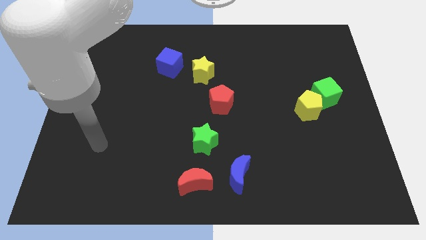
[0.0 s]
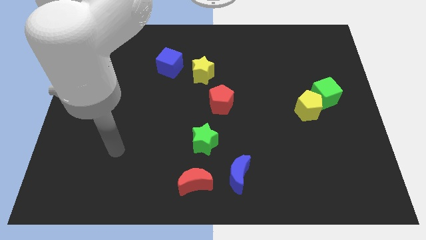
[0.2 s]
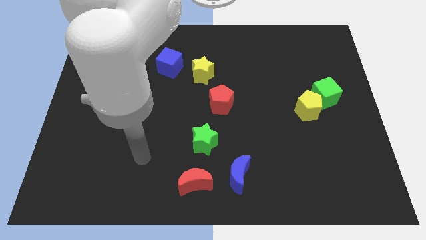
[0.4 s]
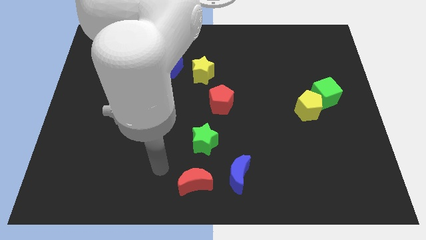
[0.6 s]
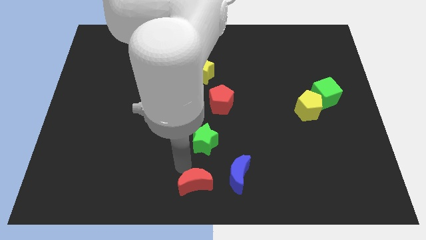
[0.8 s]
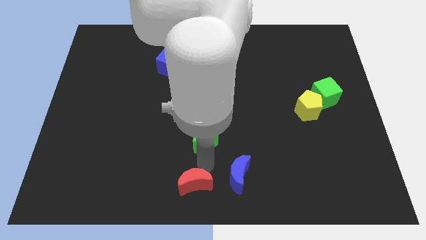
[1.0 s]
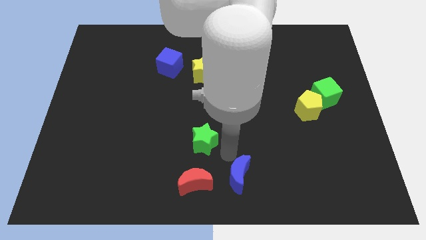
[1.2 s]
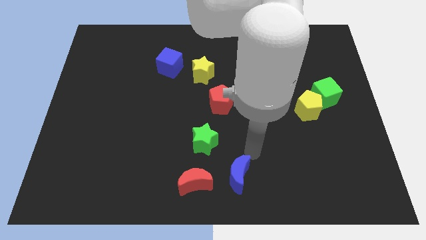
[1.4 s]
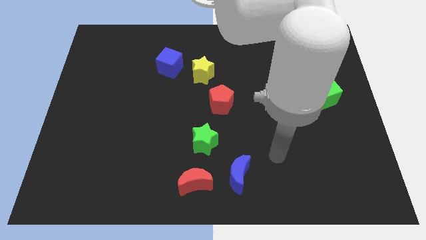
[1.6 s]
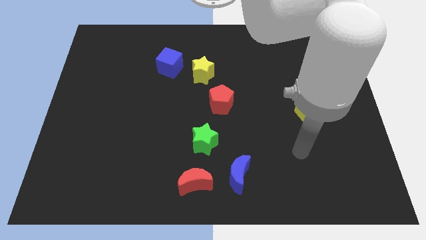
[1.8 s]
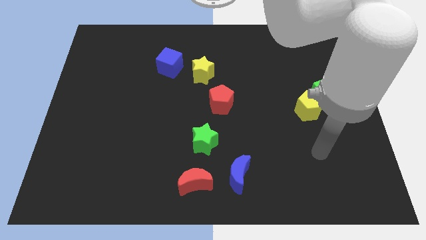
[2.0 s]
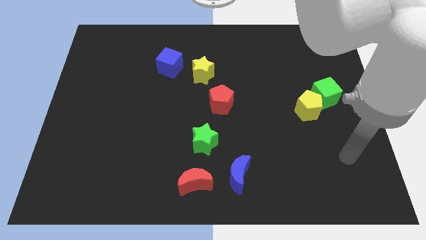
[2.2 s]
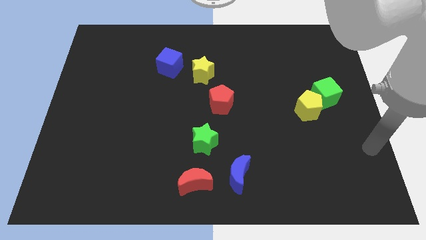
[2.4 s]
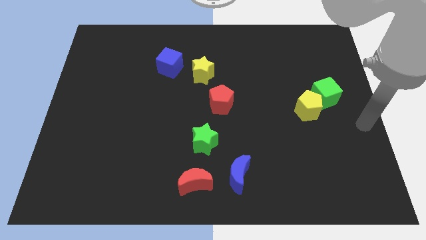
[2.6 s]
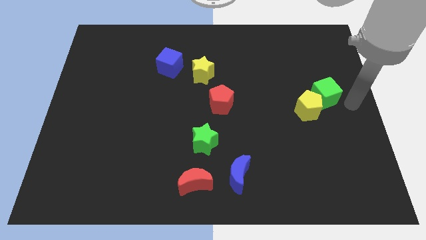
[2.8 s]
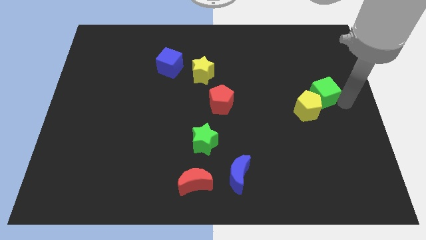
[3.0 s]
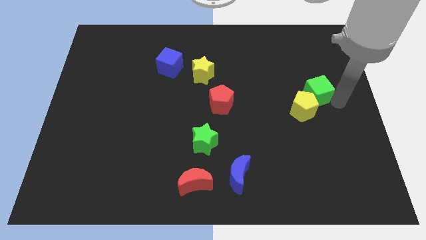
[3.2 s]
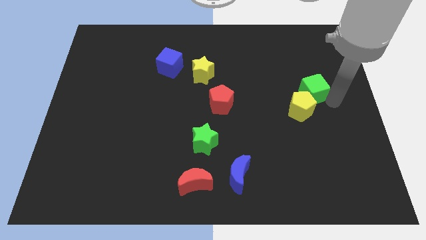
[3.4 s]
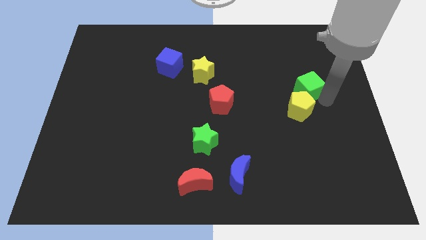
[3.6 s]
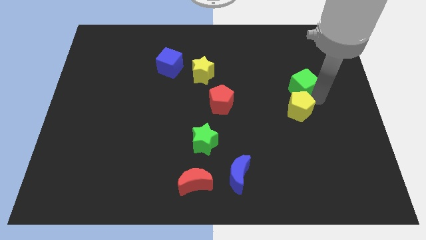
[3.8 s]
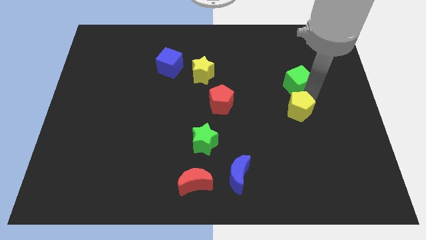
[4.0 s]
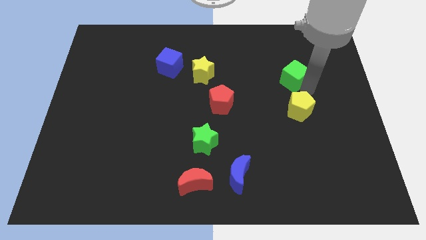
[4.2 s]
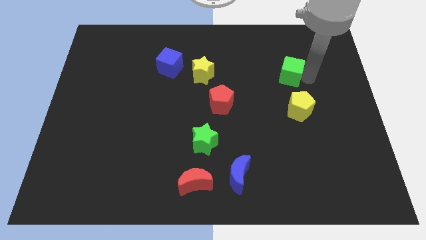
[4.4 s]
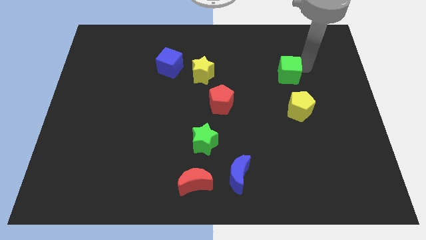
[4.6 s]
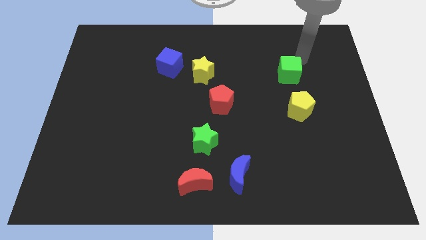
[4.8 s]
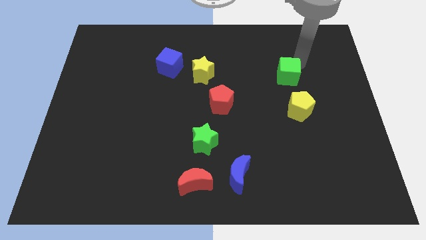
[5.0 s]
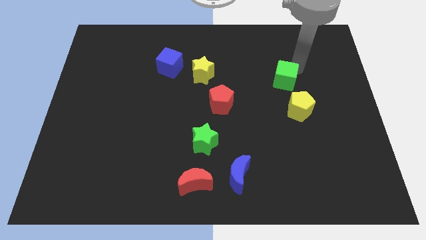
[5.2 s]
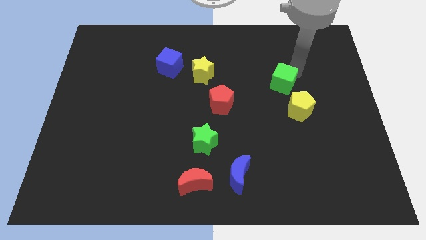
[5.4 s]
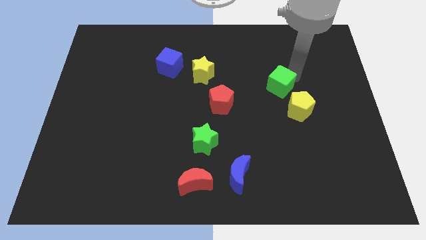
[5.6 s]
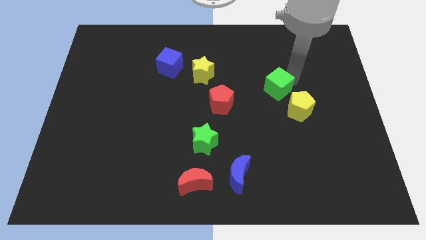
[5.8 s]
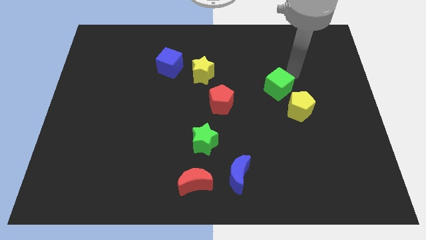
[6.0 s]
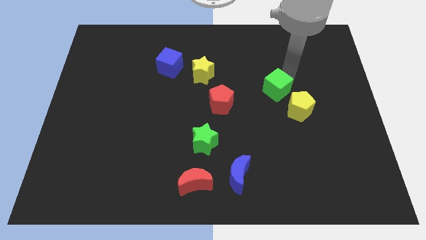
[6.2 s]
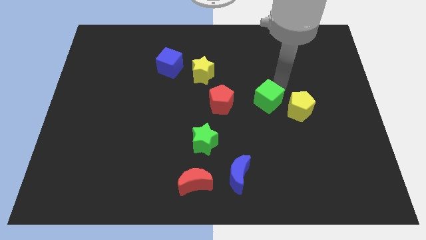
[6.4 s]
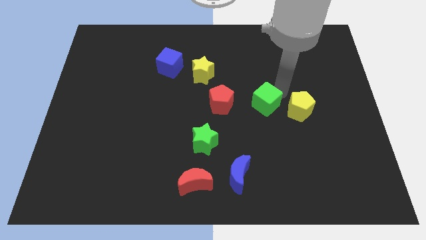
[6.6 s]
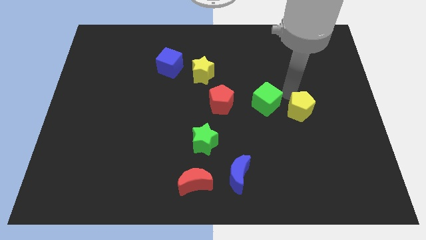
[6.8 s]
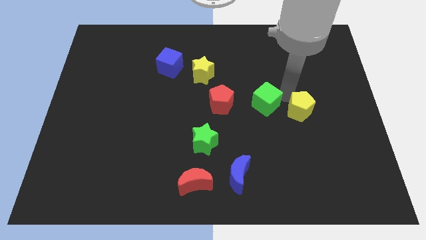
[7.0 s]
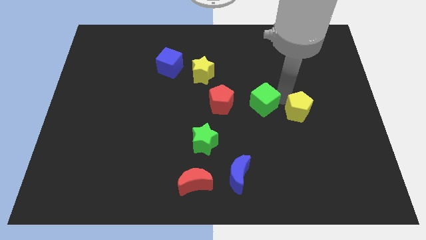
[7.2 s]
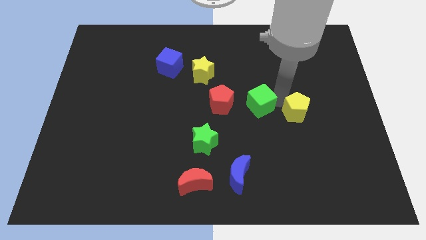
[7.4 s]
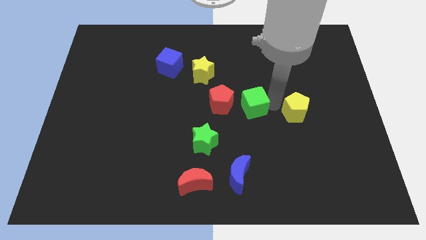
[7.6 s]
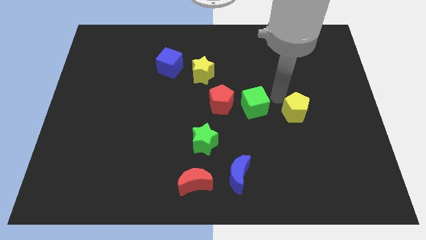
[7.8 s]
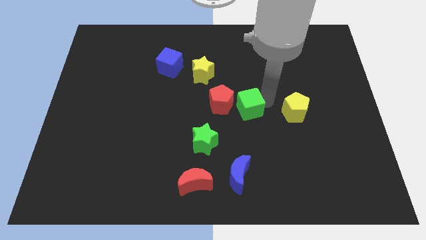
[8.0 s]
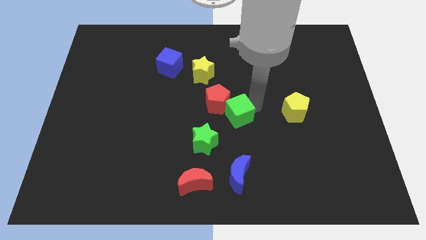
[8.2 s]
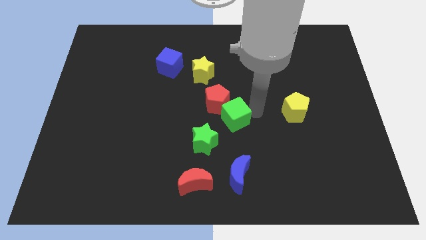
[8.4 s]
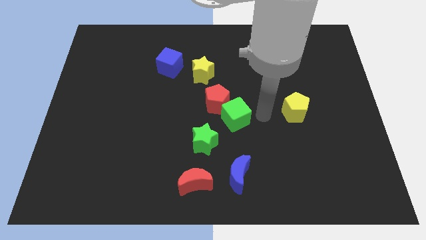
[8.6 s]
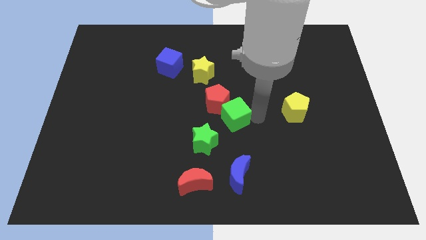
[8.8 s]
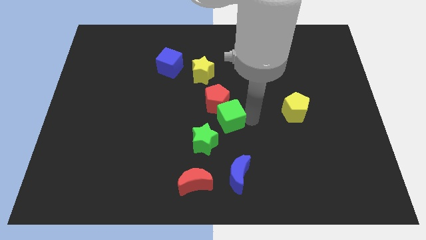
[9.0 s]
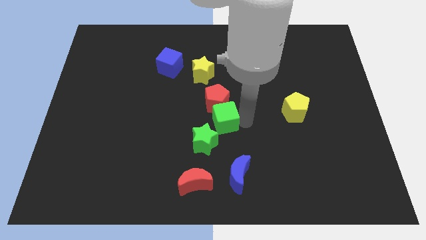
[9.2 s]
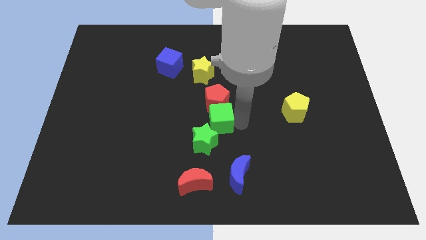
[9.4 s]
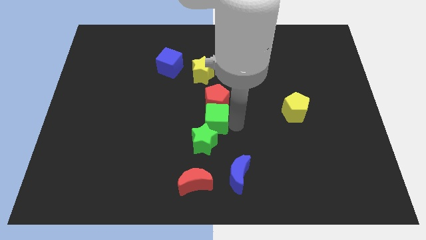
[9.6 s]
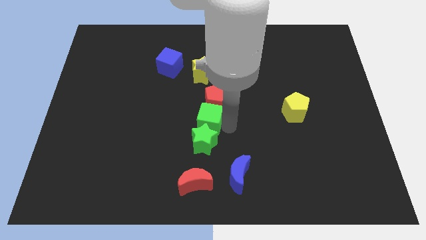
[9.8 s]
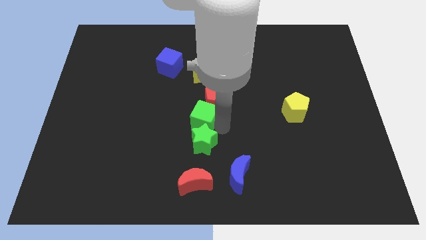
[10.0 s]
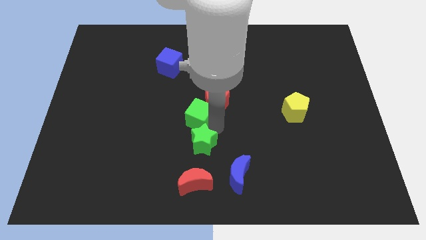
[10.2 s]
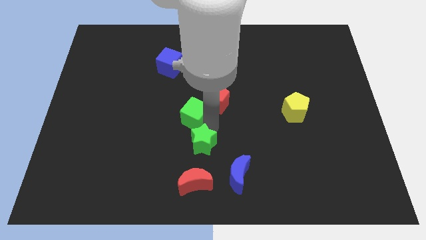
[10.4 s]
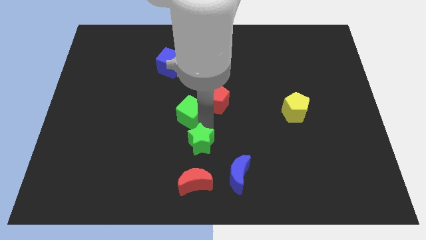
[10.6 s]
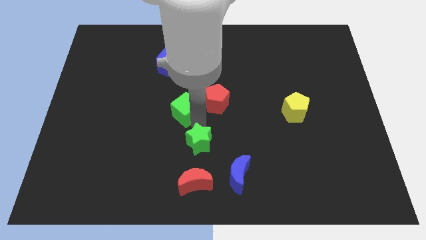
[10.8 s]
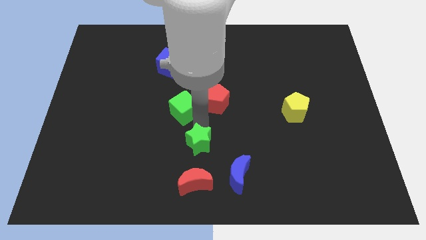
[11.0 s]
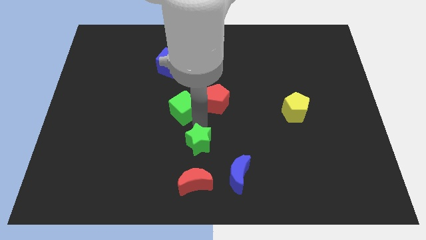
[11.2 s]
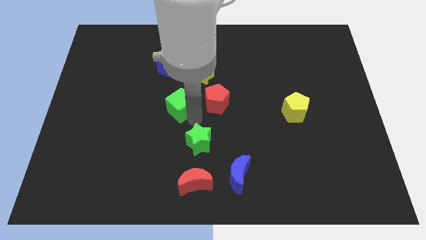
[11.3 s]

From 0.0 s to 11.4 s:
slide the green cube below the blue cube

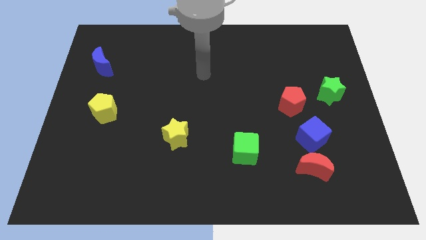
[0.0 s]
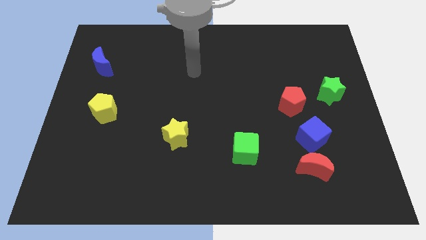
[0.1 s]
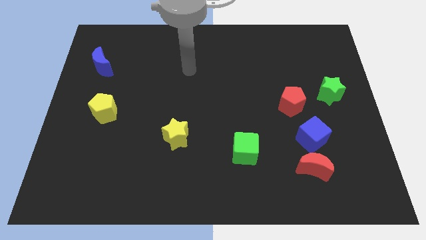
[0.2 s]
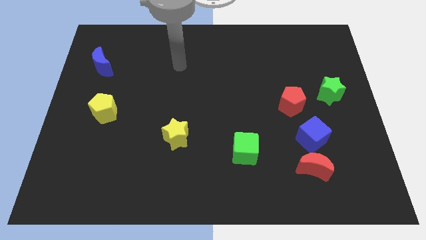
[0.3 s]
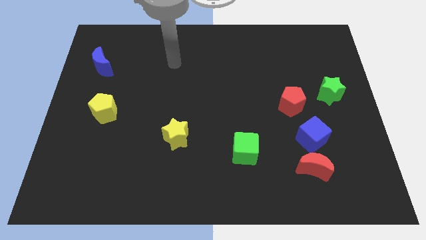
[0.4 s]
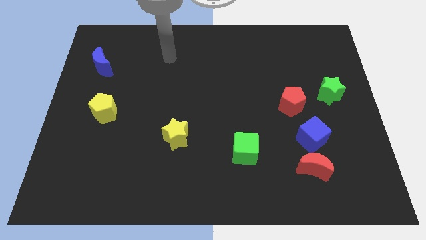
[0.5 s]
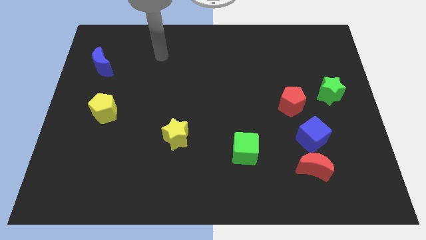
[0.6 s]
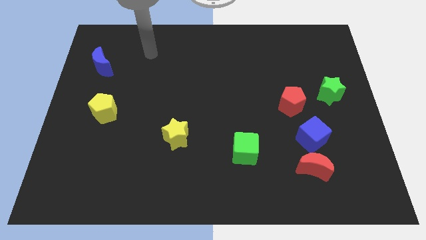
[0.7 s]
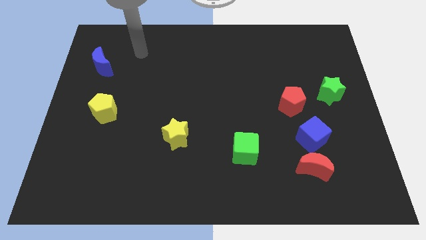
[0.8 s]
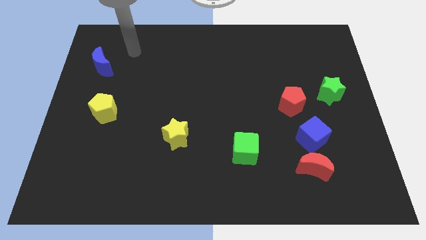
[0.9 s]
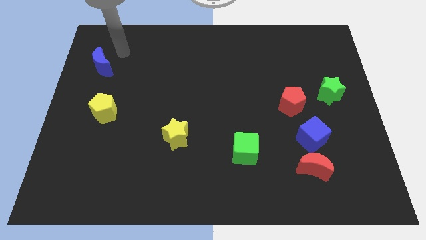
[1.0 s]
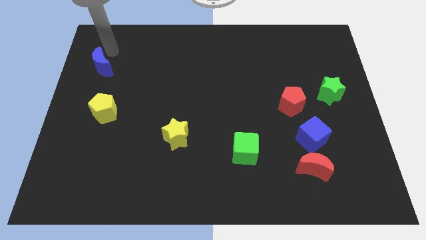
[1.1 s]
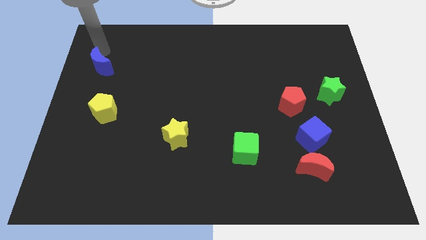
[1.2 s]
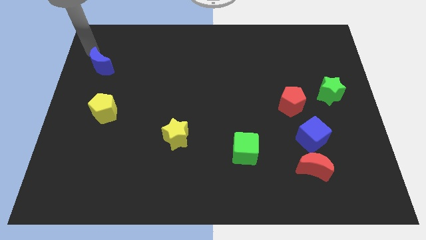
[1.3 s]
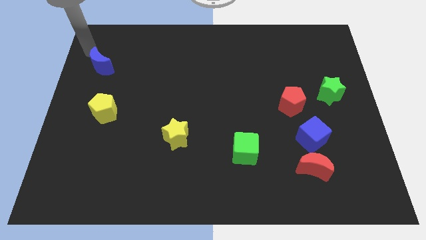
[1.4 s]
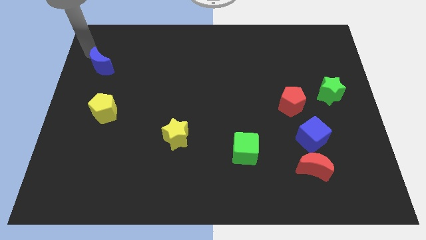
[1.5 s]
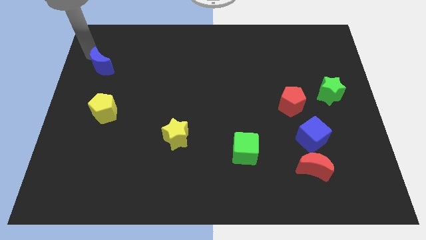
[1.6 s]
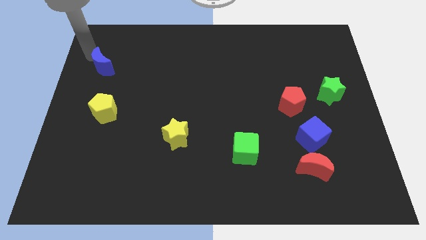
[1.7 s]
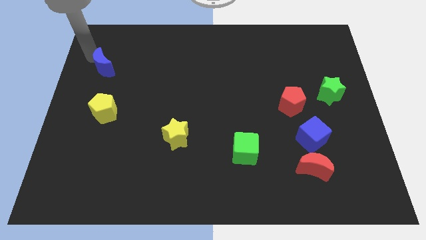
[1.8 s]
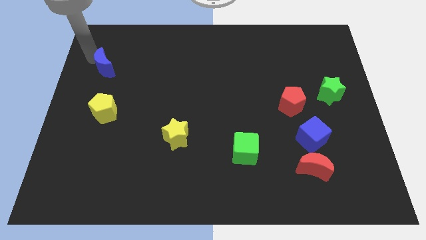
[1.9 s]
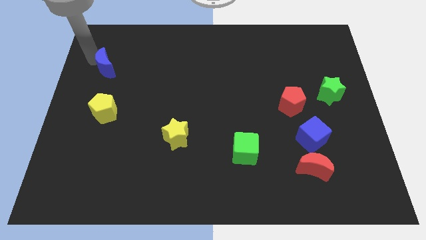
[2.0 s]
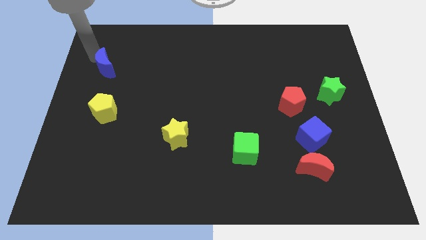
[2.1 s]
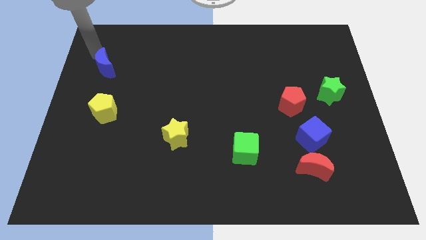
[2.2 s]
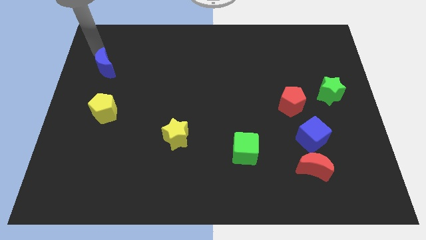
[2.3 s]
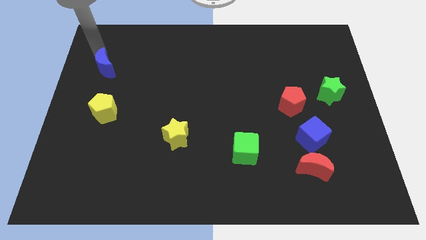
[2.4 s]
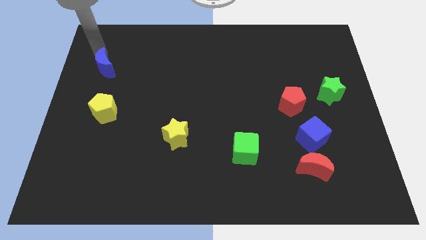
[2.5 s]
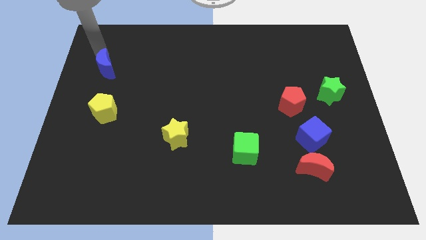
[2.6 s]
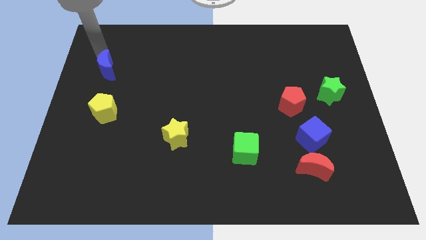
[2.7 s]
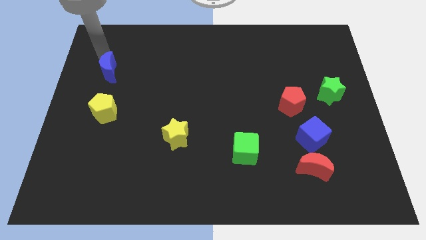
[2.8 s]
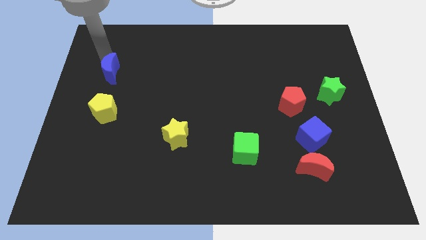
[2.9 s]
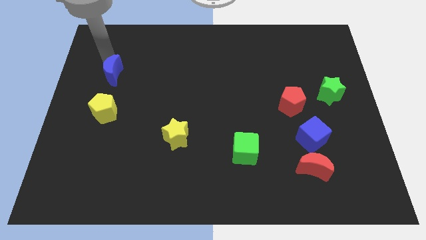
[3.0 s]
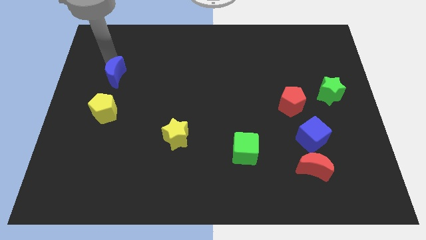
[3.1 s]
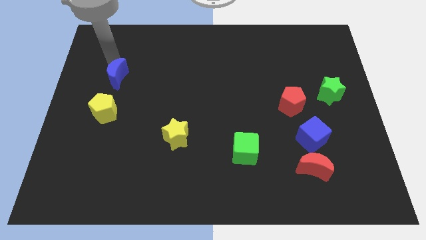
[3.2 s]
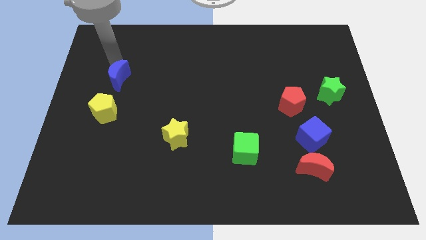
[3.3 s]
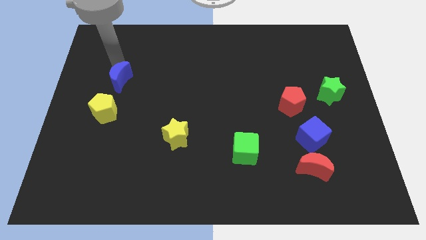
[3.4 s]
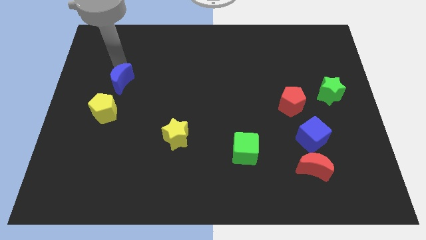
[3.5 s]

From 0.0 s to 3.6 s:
move the blue moon to the top right of the yellow pentagon
